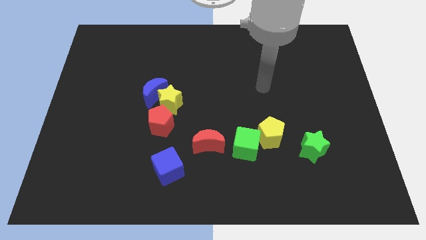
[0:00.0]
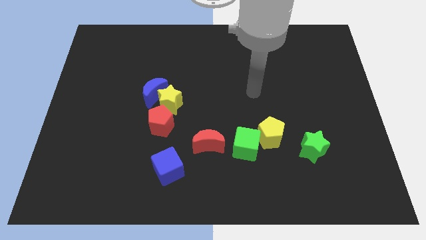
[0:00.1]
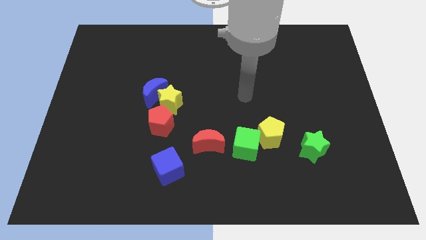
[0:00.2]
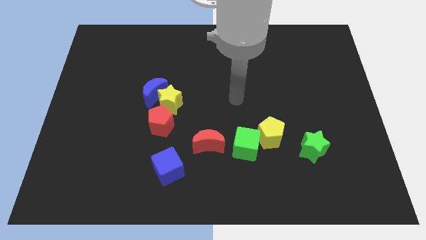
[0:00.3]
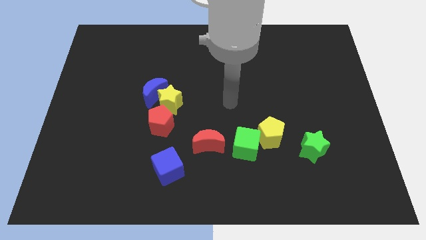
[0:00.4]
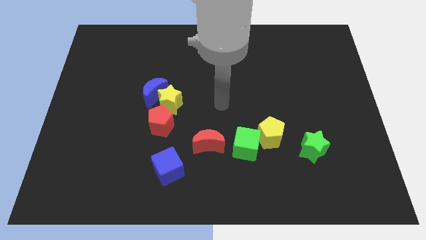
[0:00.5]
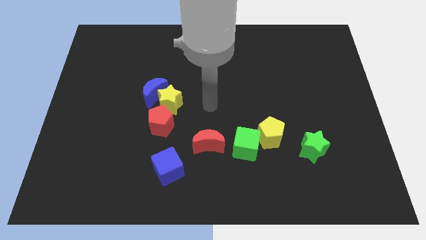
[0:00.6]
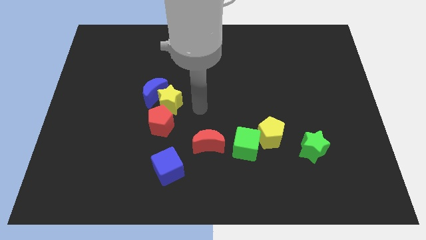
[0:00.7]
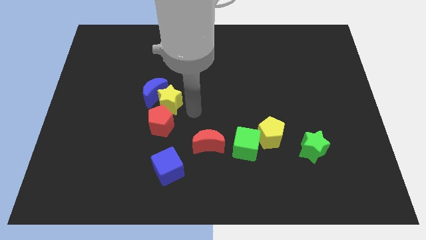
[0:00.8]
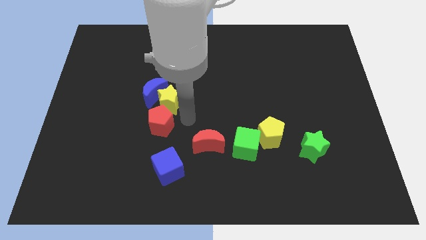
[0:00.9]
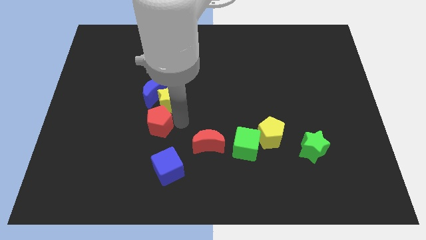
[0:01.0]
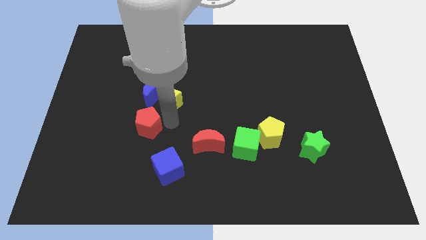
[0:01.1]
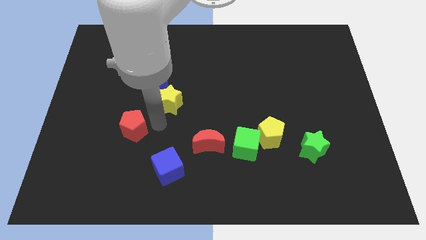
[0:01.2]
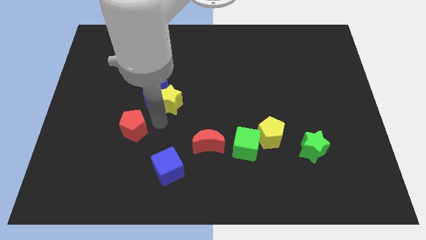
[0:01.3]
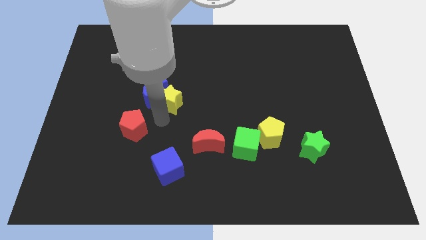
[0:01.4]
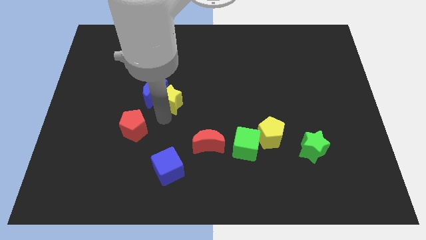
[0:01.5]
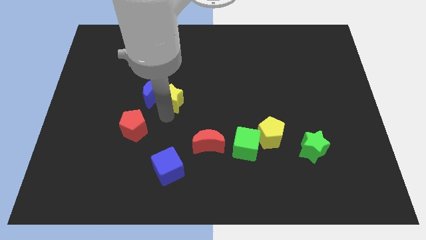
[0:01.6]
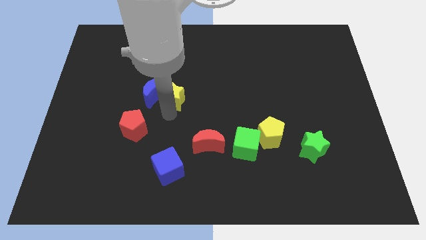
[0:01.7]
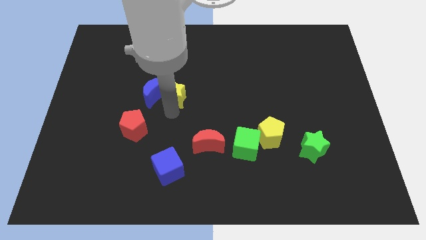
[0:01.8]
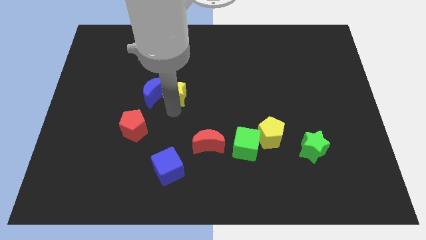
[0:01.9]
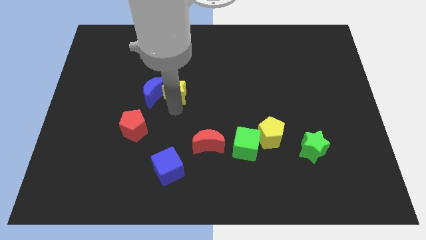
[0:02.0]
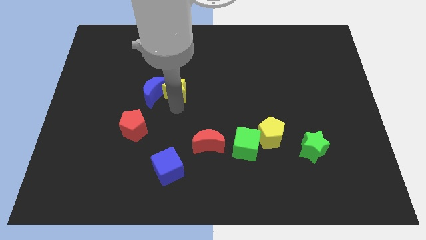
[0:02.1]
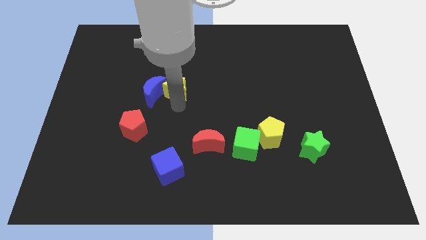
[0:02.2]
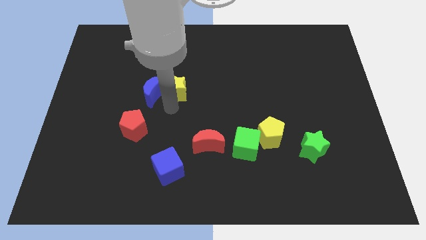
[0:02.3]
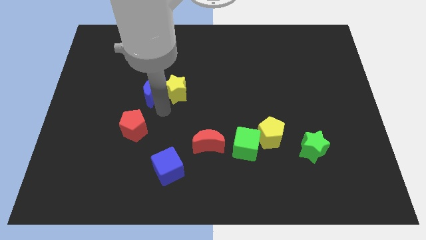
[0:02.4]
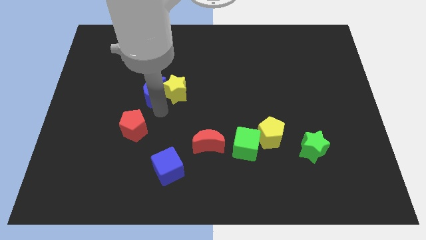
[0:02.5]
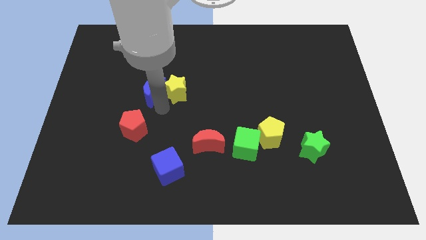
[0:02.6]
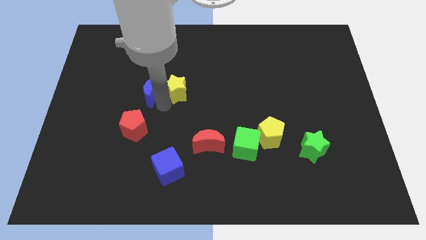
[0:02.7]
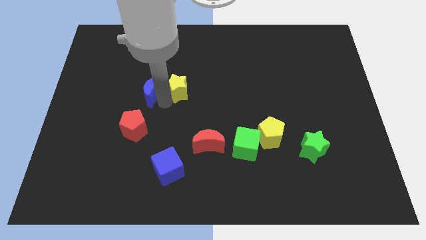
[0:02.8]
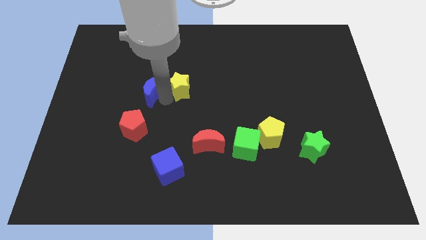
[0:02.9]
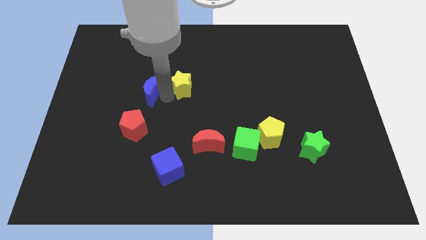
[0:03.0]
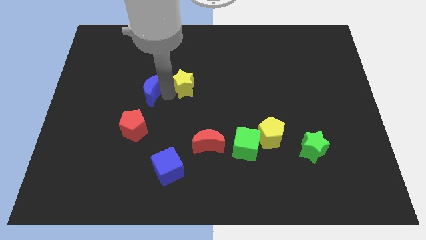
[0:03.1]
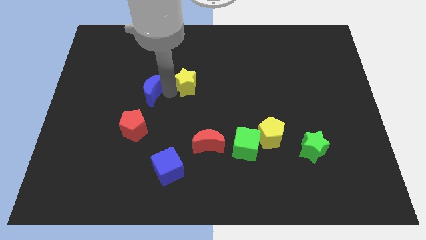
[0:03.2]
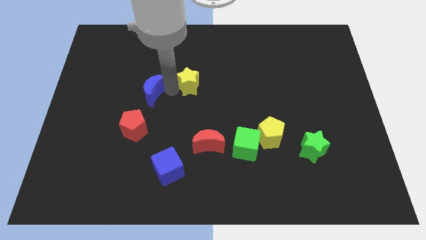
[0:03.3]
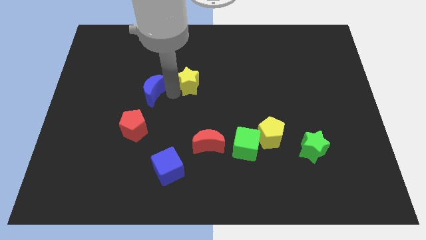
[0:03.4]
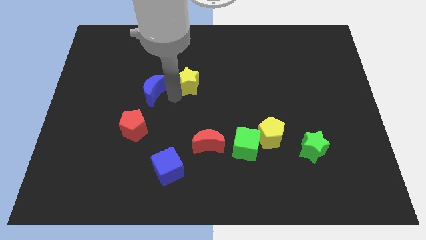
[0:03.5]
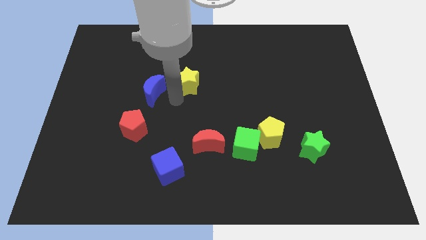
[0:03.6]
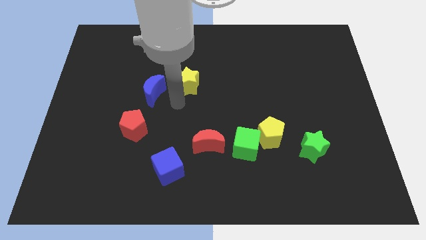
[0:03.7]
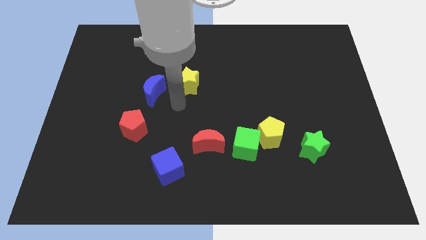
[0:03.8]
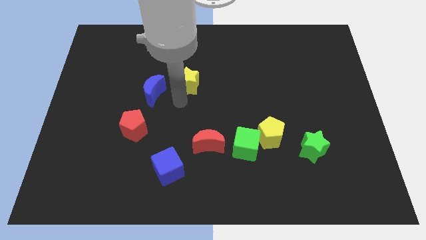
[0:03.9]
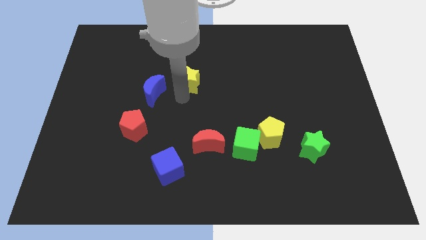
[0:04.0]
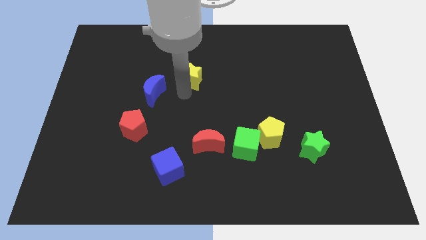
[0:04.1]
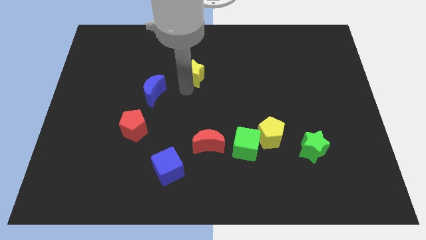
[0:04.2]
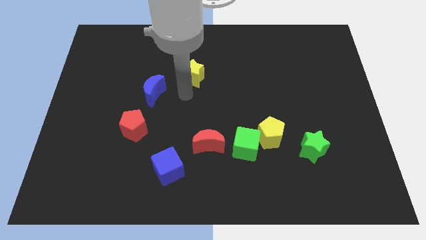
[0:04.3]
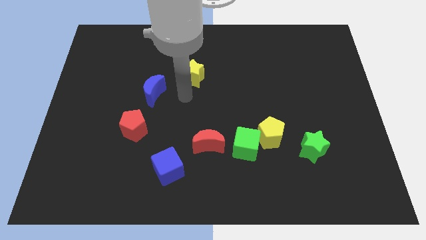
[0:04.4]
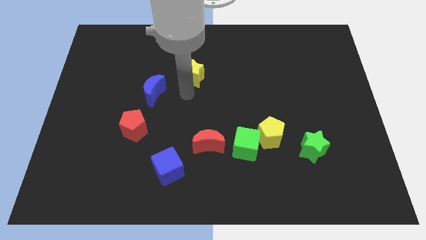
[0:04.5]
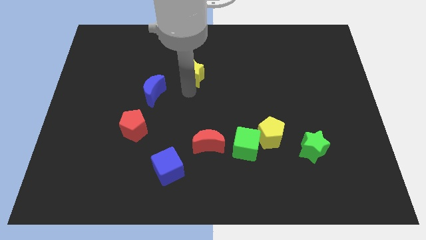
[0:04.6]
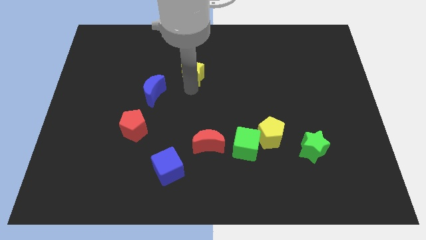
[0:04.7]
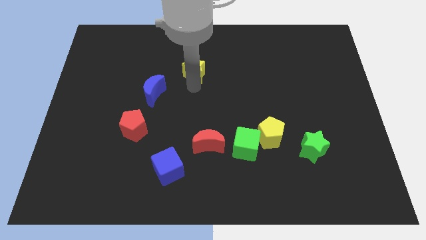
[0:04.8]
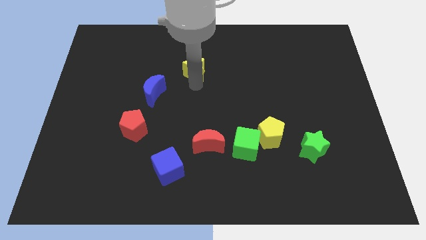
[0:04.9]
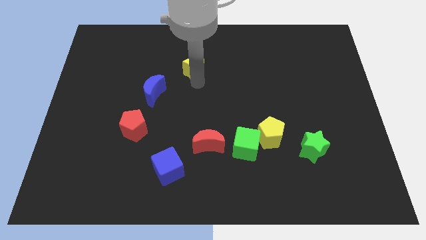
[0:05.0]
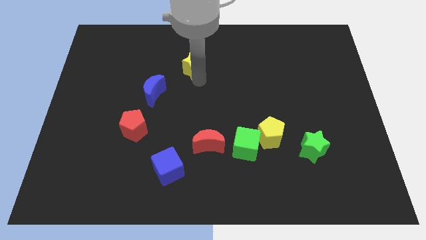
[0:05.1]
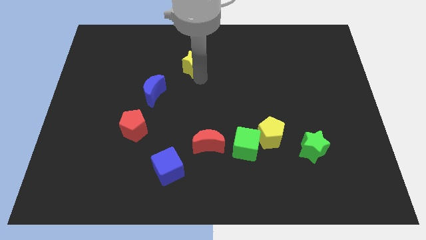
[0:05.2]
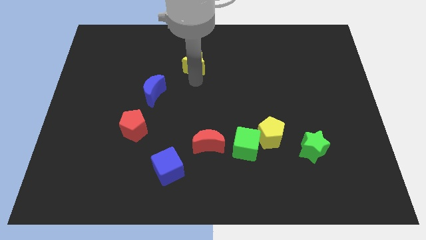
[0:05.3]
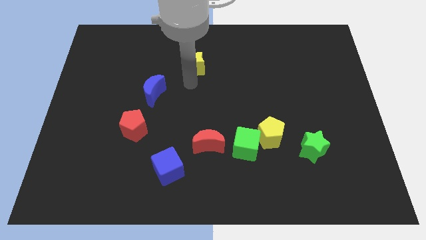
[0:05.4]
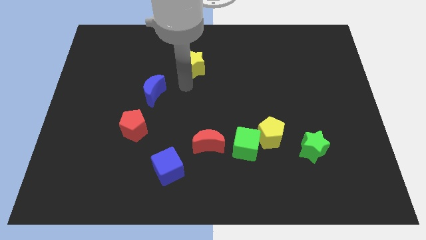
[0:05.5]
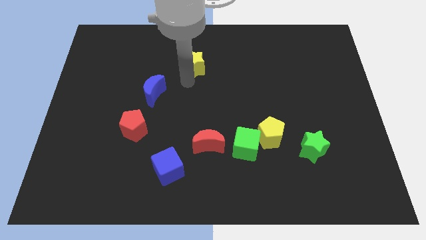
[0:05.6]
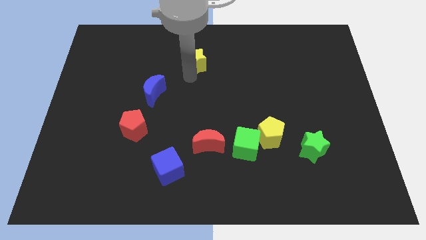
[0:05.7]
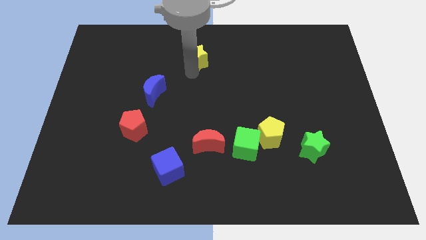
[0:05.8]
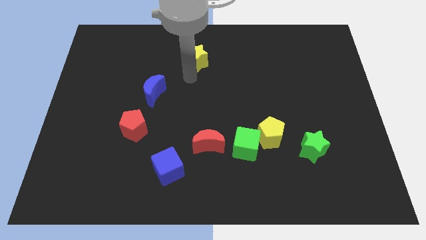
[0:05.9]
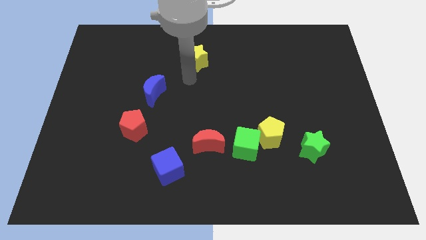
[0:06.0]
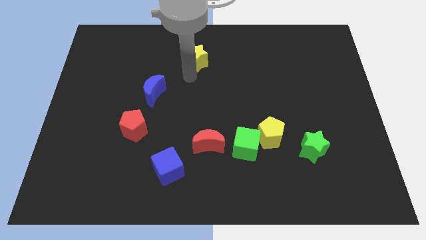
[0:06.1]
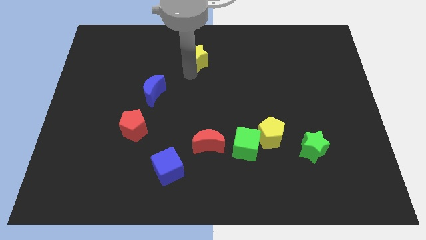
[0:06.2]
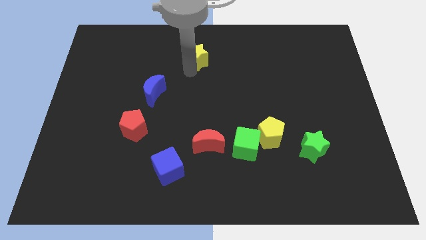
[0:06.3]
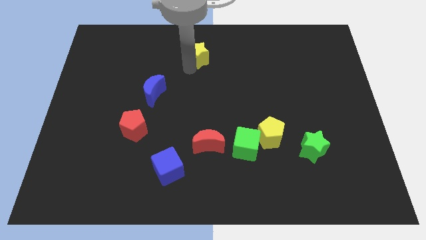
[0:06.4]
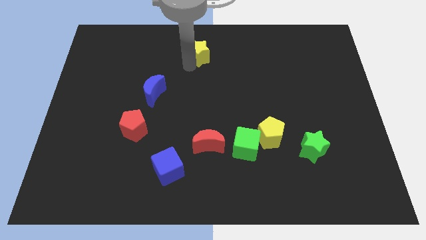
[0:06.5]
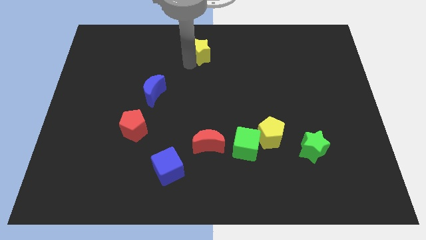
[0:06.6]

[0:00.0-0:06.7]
move the yellow star to the top

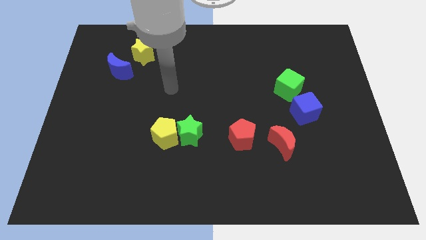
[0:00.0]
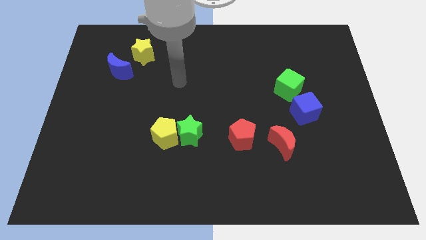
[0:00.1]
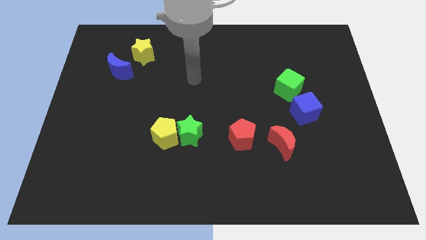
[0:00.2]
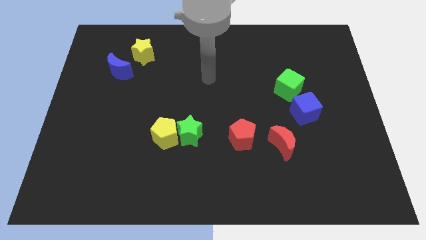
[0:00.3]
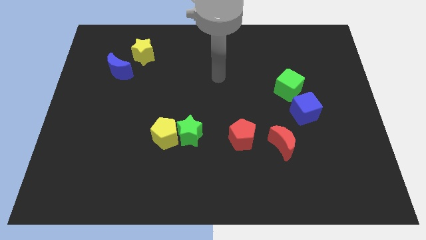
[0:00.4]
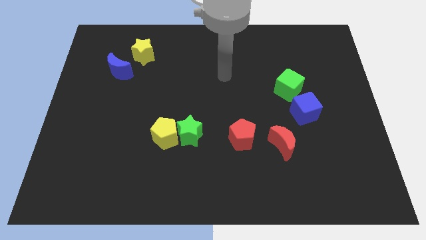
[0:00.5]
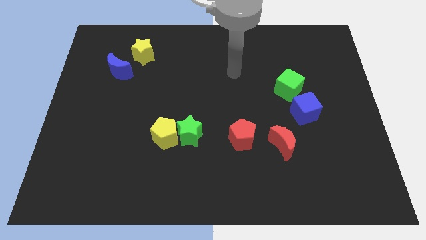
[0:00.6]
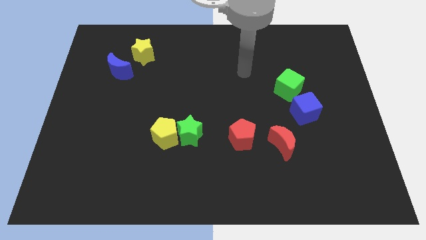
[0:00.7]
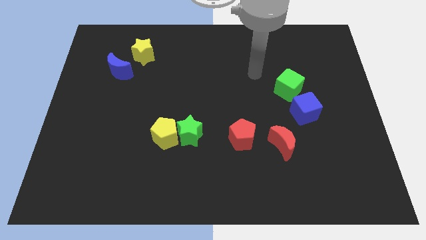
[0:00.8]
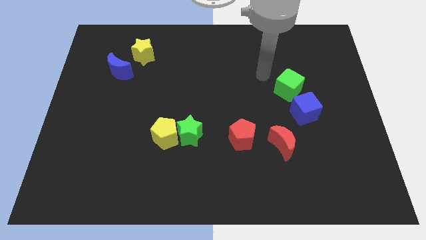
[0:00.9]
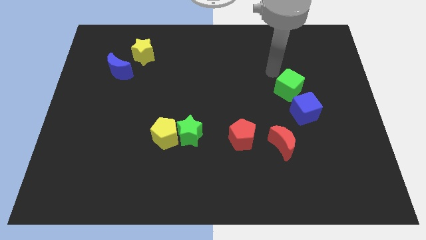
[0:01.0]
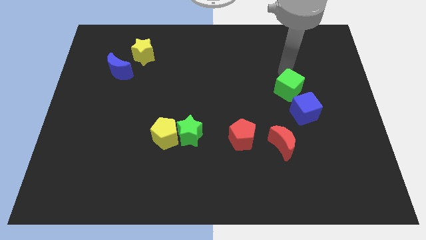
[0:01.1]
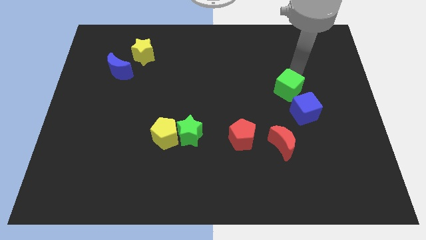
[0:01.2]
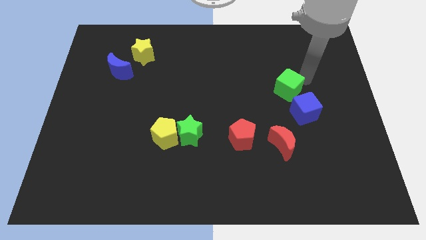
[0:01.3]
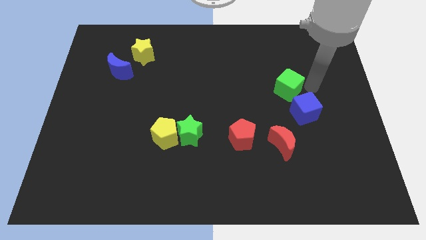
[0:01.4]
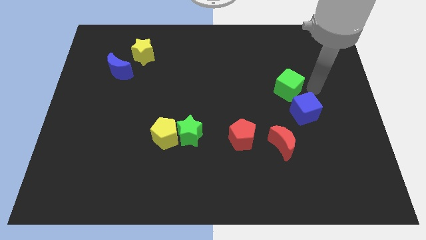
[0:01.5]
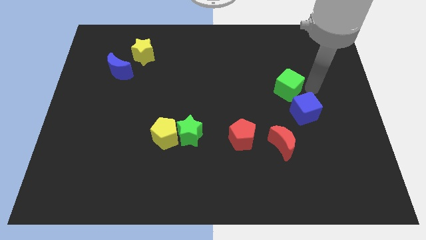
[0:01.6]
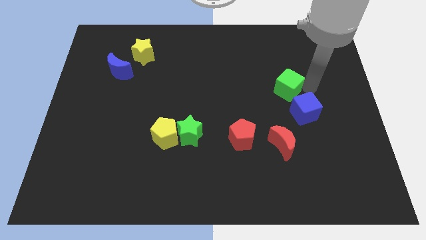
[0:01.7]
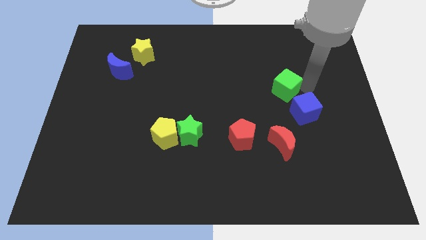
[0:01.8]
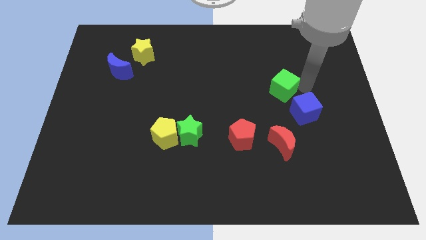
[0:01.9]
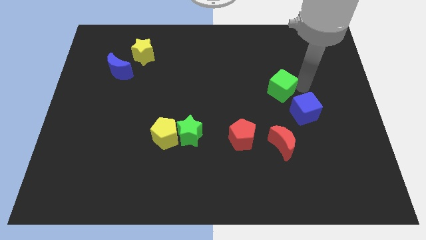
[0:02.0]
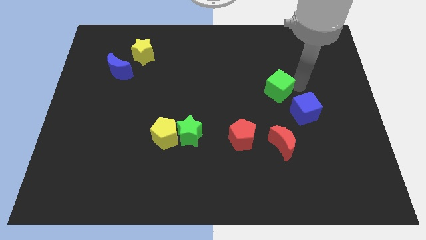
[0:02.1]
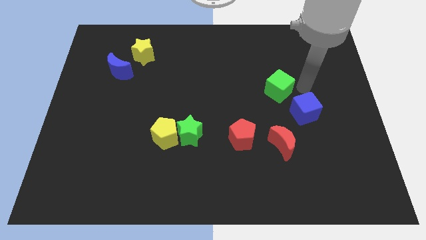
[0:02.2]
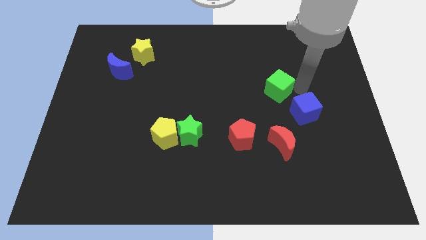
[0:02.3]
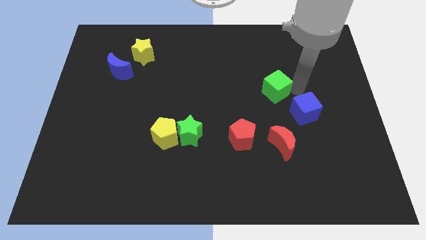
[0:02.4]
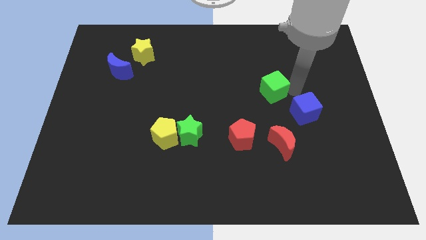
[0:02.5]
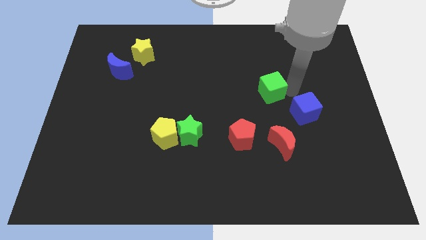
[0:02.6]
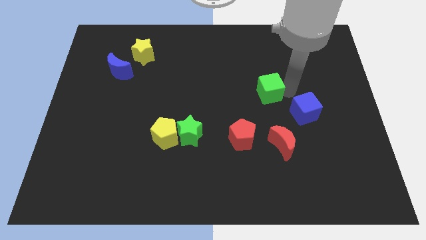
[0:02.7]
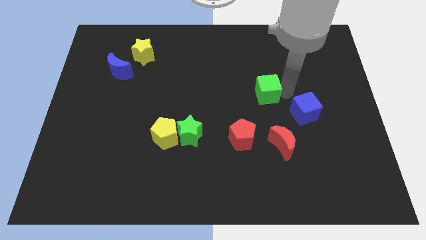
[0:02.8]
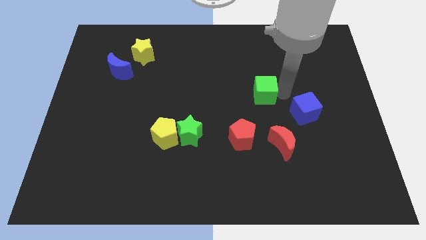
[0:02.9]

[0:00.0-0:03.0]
move the green cube to the center of the board
